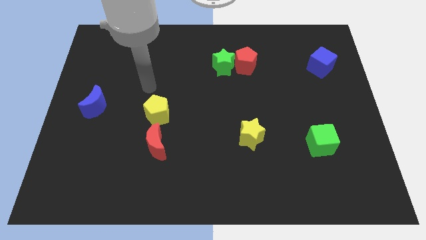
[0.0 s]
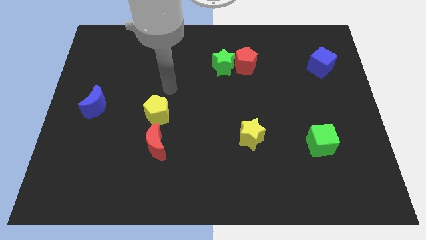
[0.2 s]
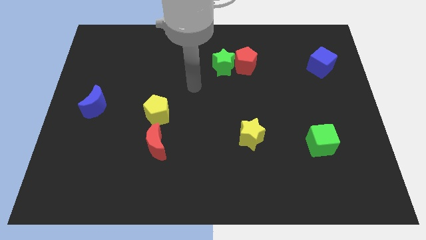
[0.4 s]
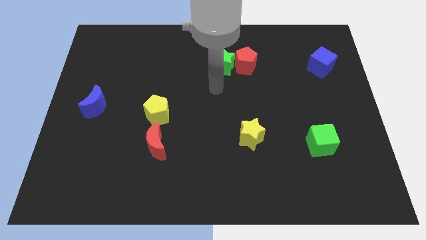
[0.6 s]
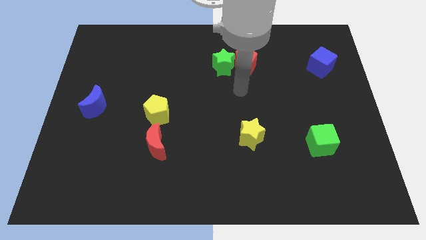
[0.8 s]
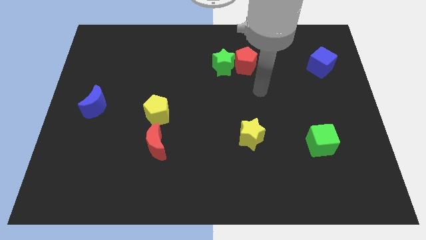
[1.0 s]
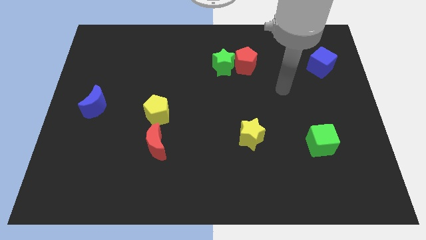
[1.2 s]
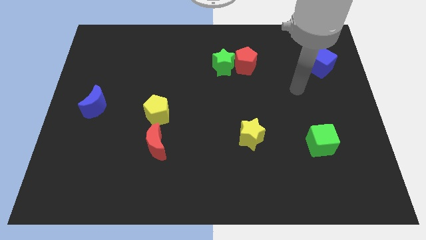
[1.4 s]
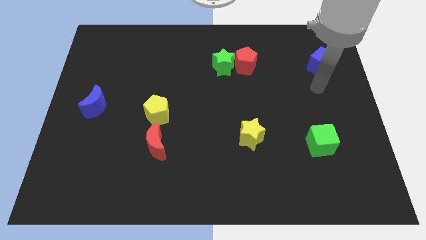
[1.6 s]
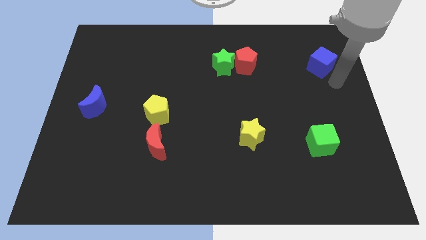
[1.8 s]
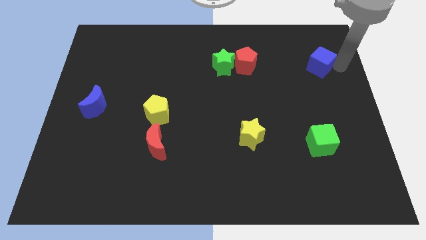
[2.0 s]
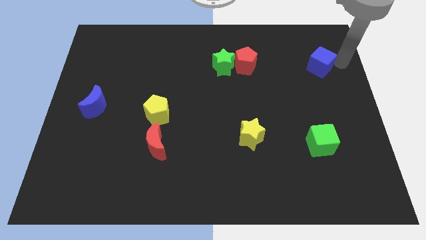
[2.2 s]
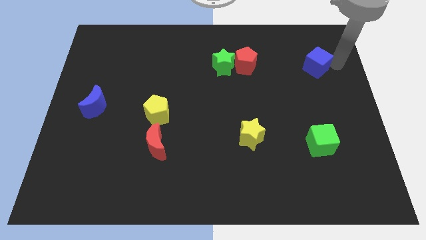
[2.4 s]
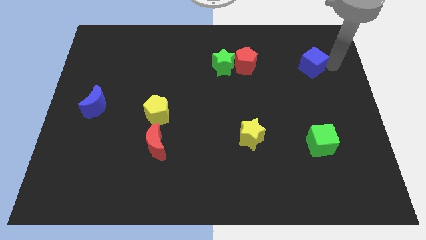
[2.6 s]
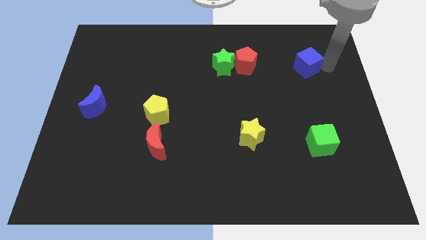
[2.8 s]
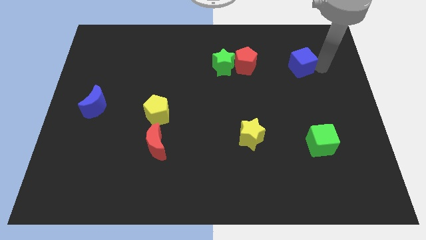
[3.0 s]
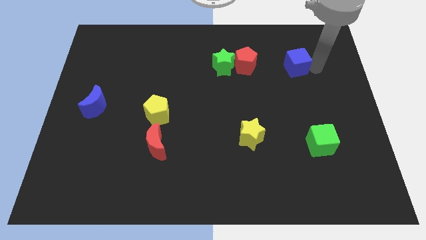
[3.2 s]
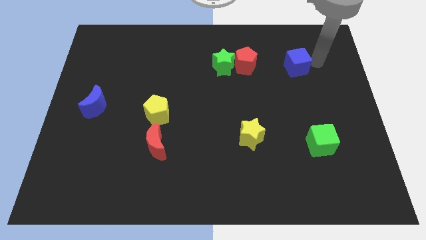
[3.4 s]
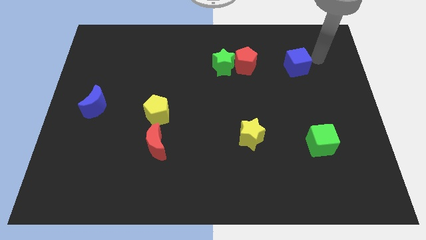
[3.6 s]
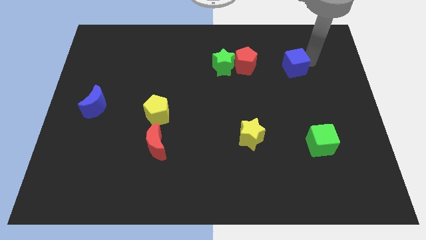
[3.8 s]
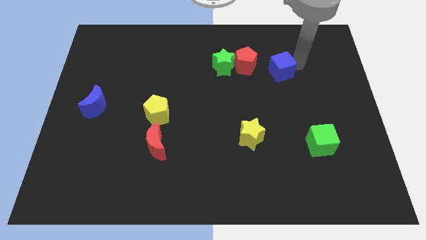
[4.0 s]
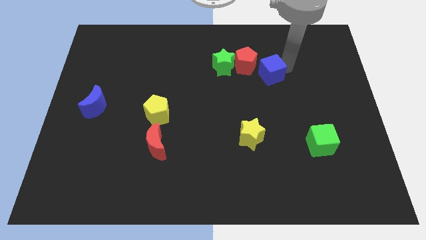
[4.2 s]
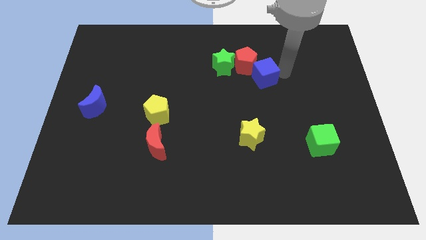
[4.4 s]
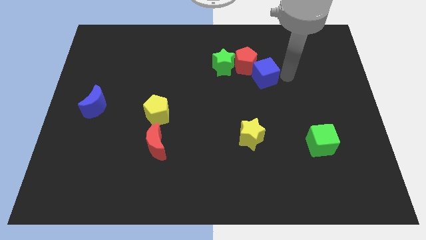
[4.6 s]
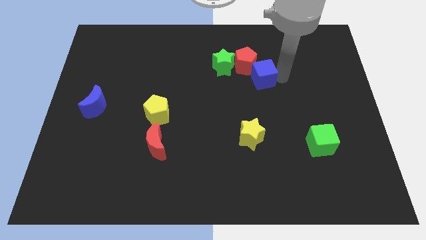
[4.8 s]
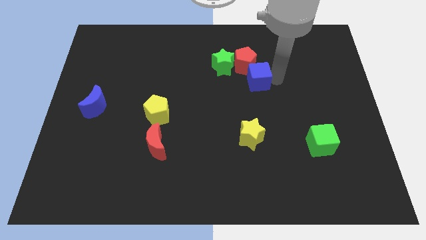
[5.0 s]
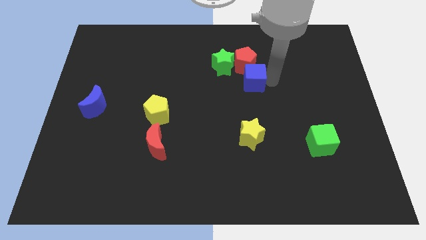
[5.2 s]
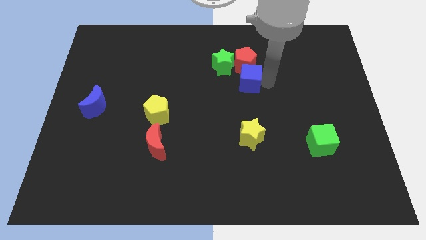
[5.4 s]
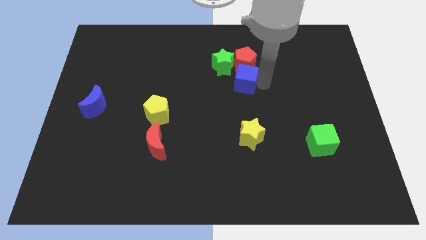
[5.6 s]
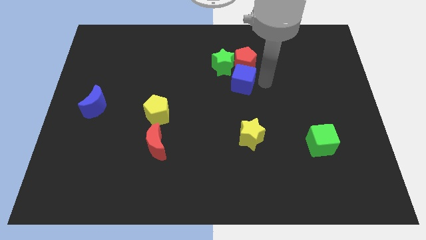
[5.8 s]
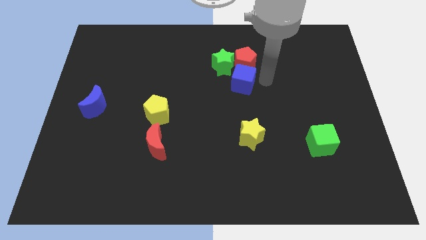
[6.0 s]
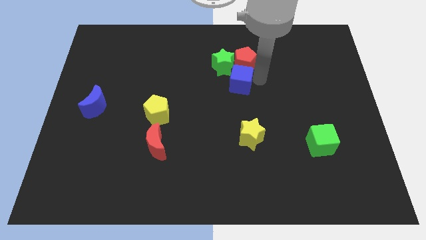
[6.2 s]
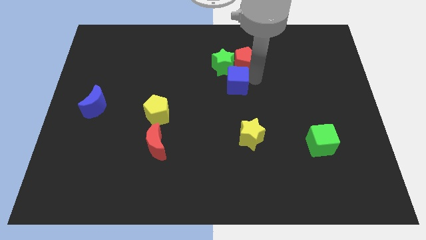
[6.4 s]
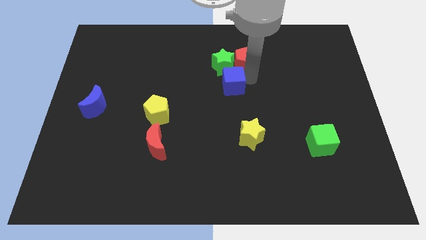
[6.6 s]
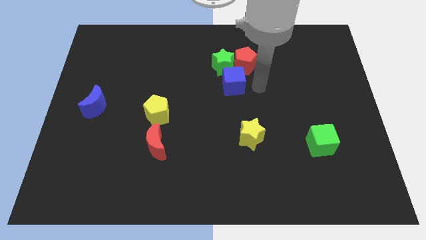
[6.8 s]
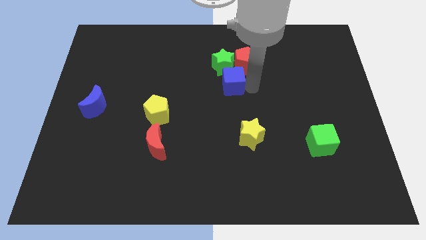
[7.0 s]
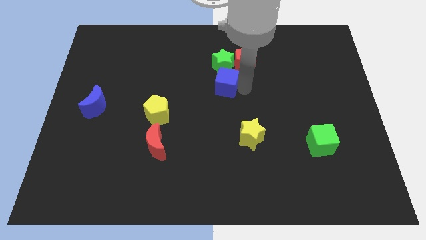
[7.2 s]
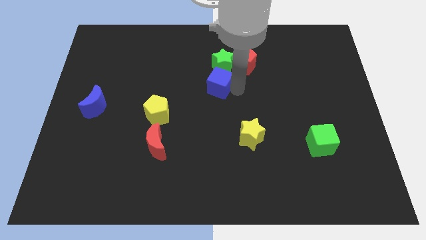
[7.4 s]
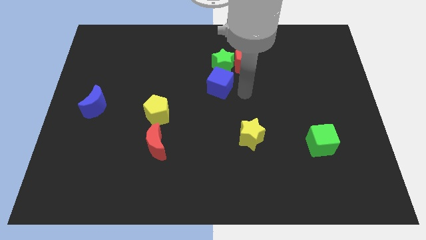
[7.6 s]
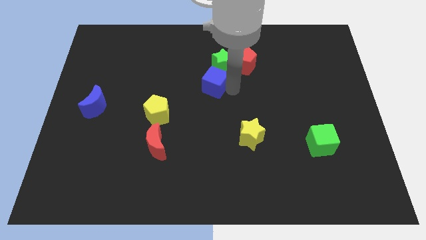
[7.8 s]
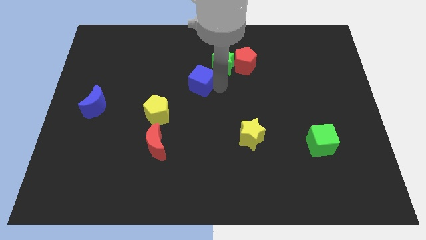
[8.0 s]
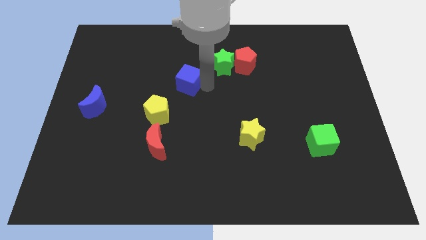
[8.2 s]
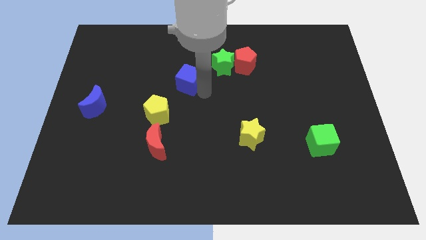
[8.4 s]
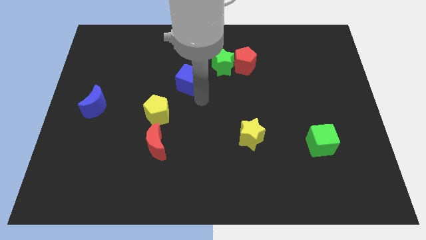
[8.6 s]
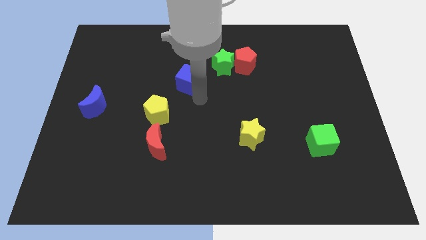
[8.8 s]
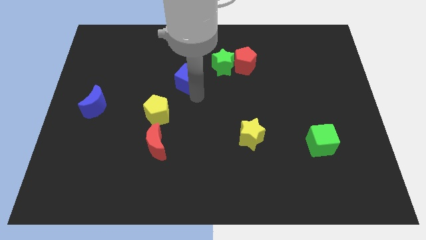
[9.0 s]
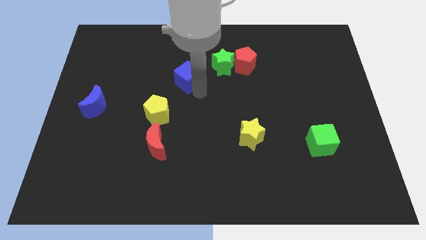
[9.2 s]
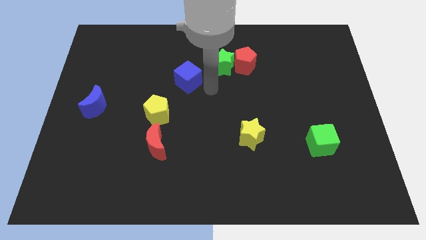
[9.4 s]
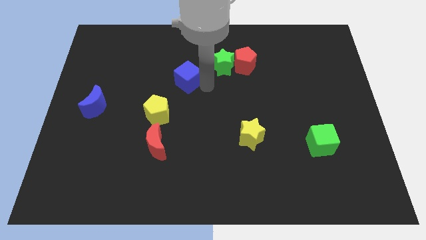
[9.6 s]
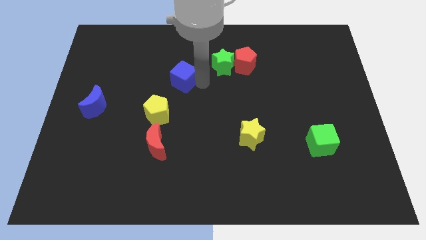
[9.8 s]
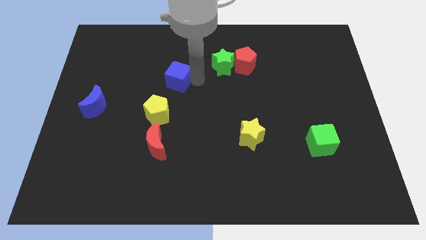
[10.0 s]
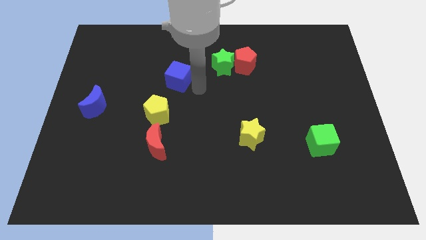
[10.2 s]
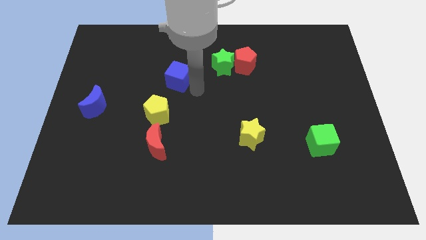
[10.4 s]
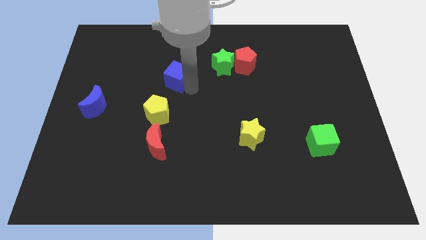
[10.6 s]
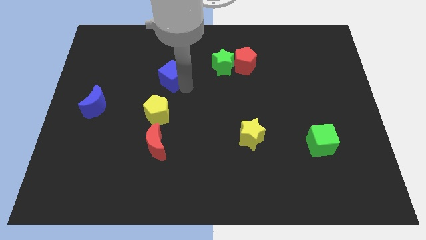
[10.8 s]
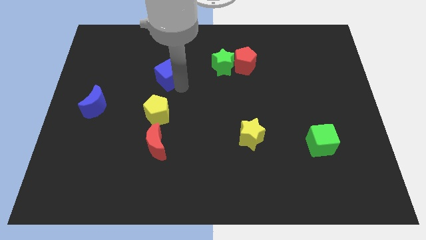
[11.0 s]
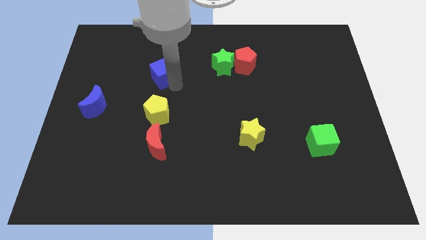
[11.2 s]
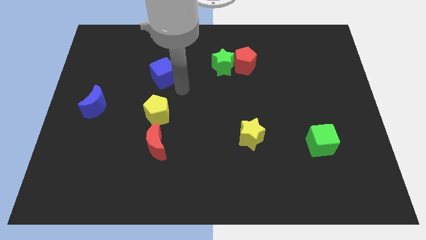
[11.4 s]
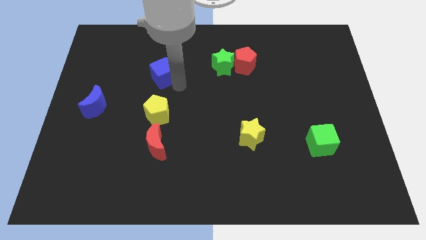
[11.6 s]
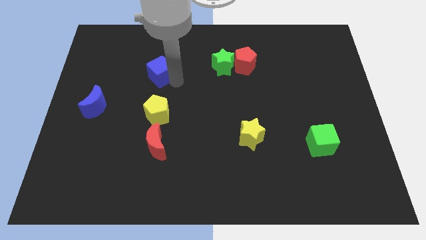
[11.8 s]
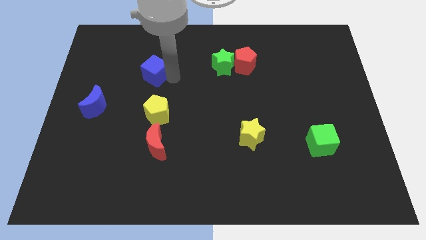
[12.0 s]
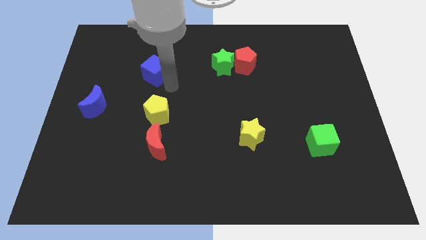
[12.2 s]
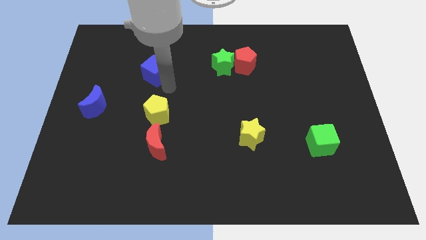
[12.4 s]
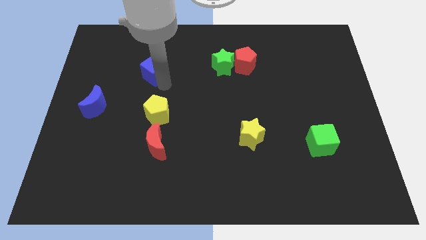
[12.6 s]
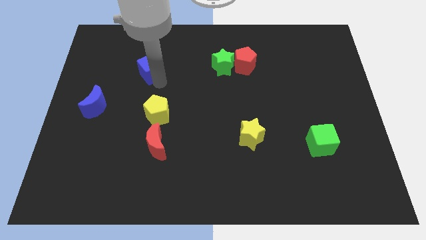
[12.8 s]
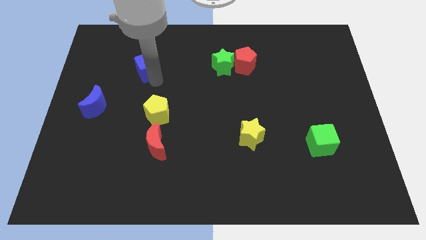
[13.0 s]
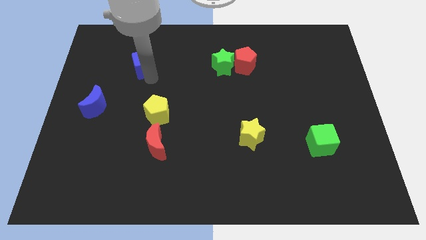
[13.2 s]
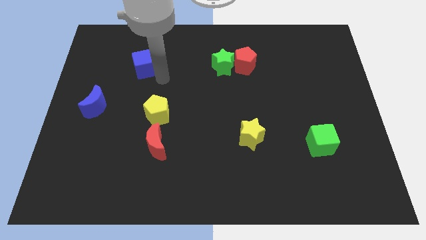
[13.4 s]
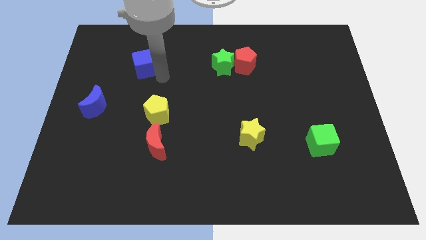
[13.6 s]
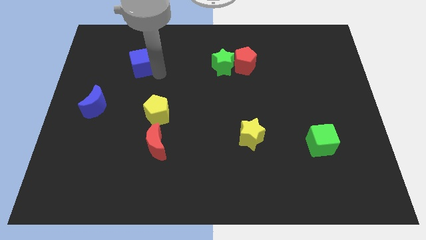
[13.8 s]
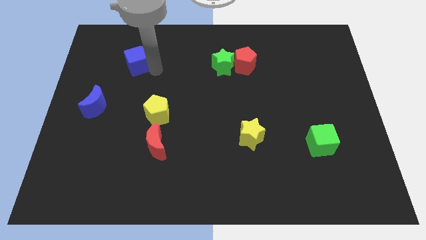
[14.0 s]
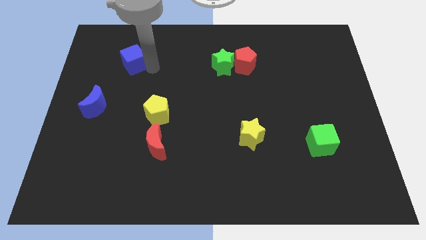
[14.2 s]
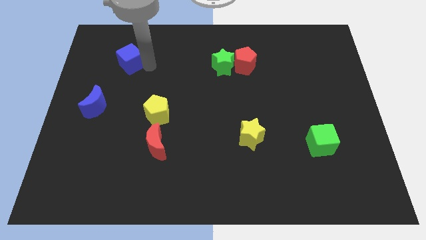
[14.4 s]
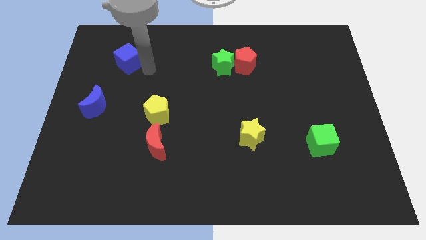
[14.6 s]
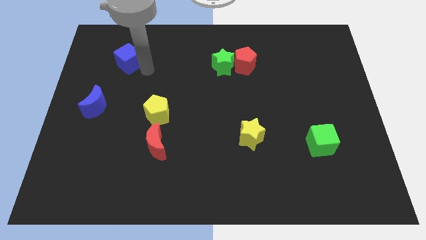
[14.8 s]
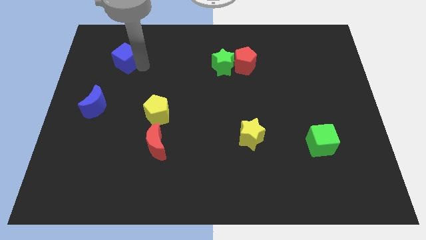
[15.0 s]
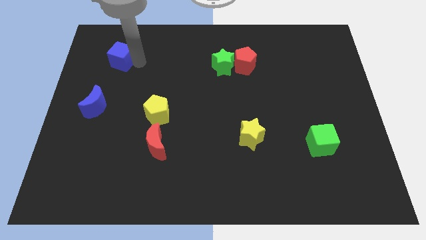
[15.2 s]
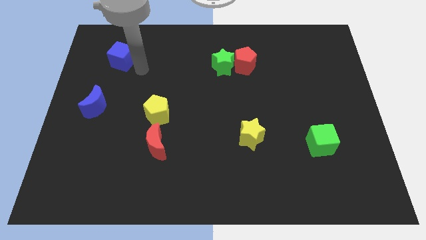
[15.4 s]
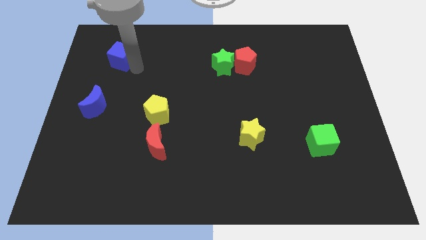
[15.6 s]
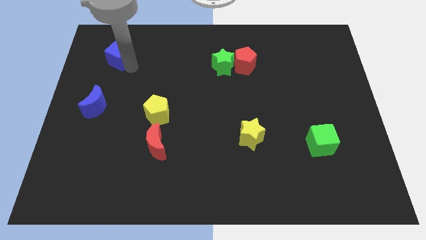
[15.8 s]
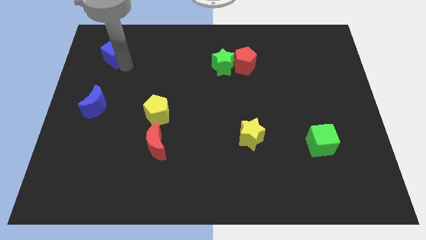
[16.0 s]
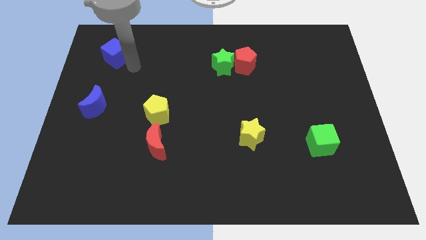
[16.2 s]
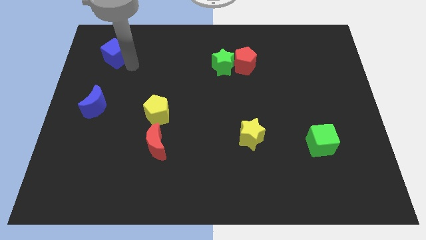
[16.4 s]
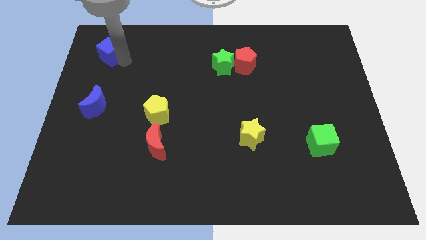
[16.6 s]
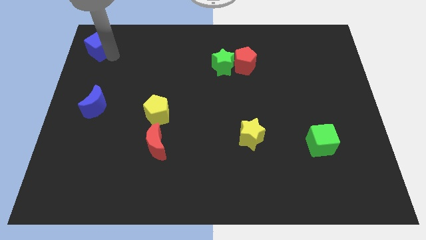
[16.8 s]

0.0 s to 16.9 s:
put the blue cube to the top left of the board
